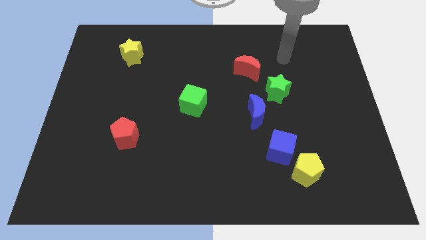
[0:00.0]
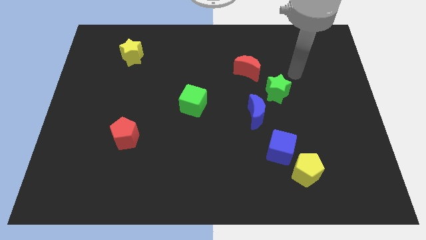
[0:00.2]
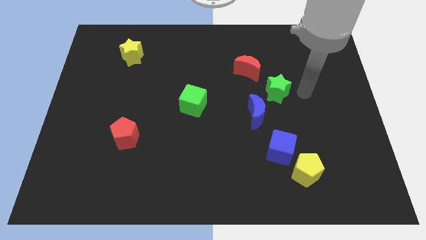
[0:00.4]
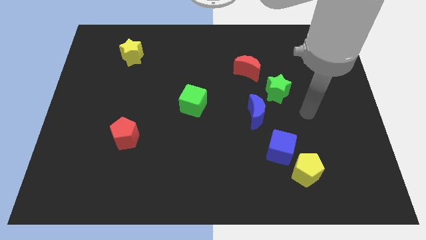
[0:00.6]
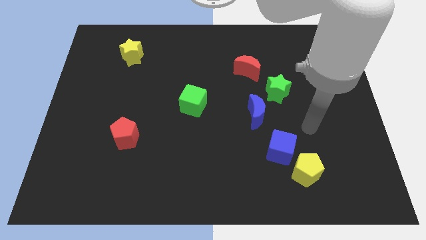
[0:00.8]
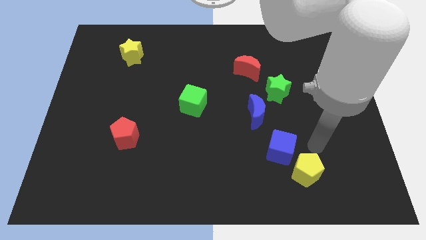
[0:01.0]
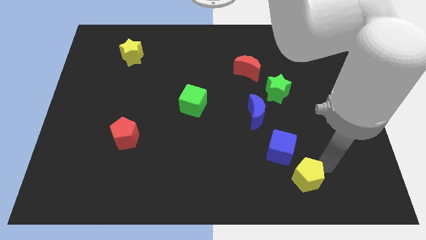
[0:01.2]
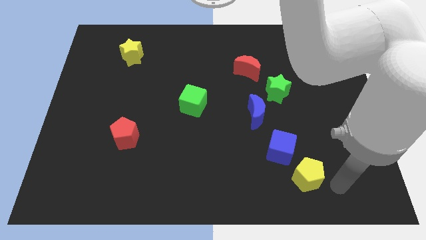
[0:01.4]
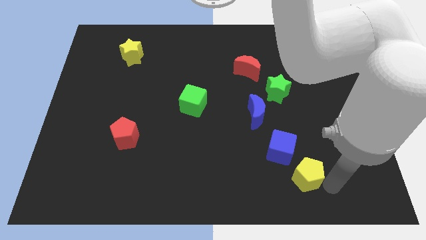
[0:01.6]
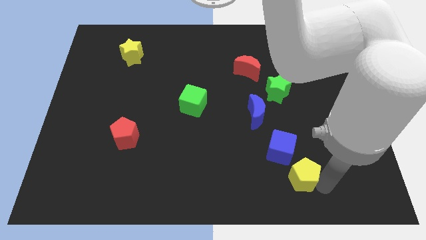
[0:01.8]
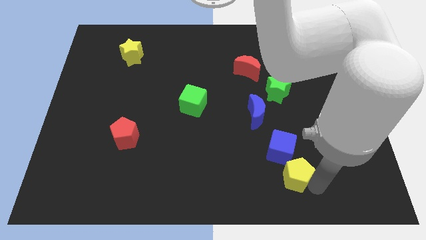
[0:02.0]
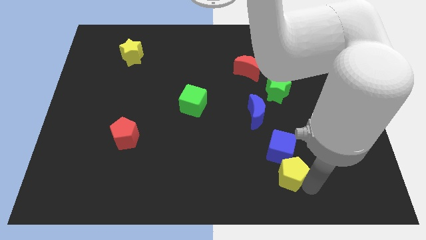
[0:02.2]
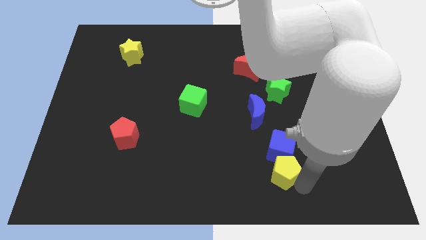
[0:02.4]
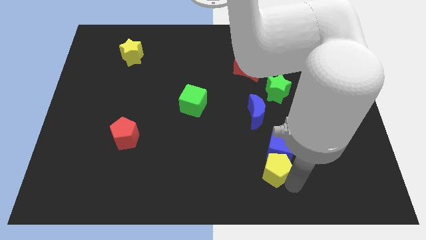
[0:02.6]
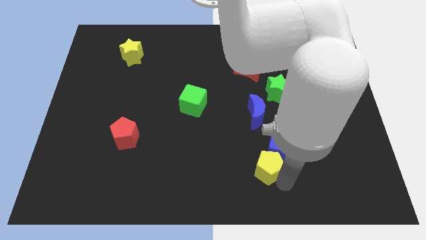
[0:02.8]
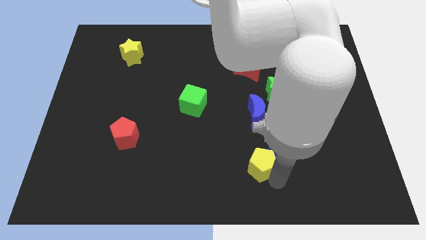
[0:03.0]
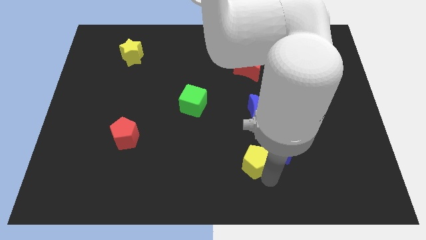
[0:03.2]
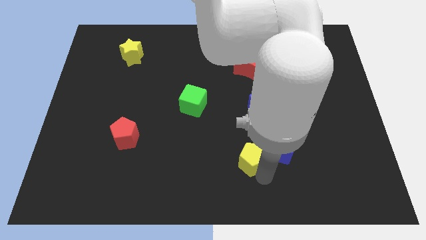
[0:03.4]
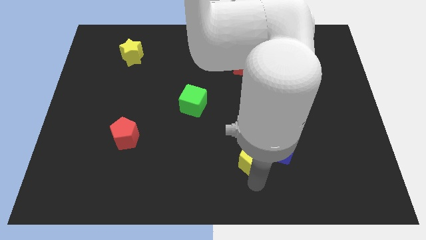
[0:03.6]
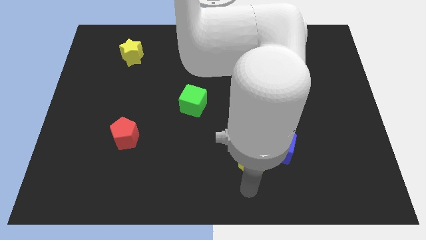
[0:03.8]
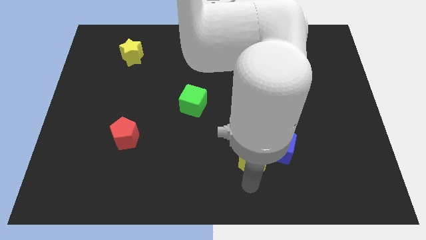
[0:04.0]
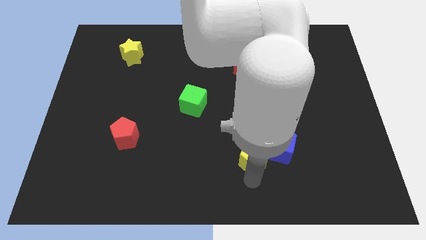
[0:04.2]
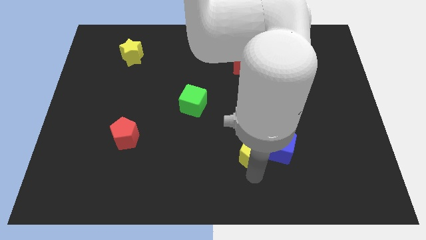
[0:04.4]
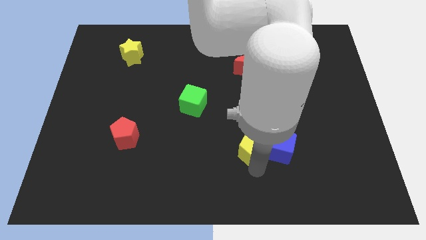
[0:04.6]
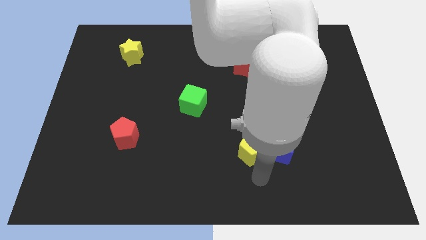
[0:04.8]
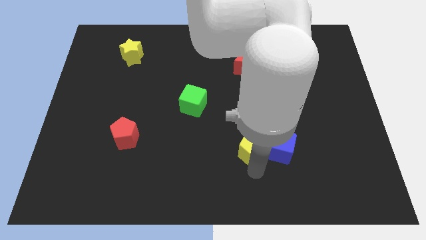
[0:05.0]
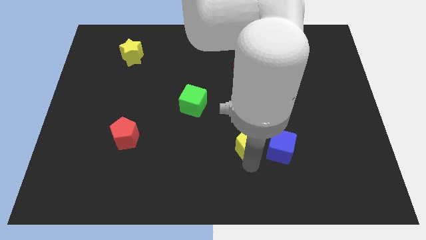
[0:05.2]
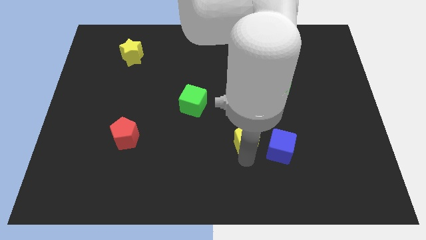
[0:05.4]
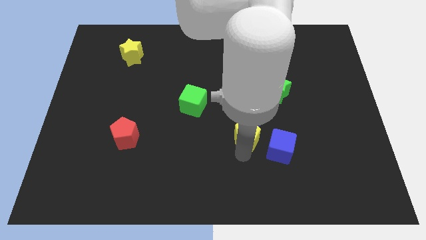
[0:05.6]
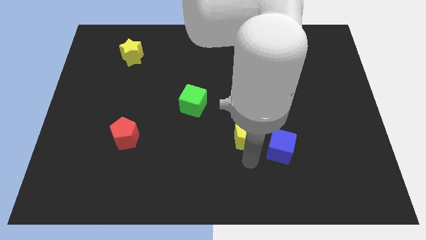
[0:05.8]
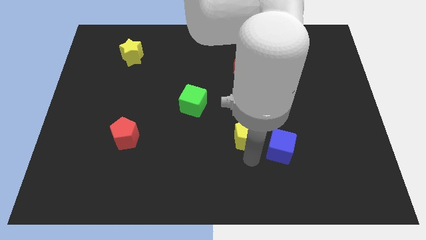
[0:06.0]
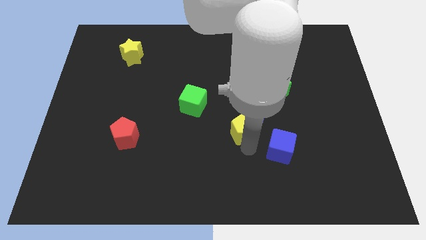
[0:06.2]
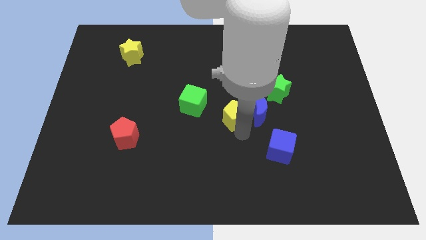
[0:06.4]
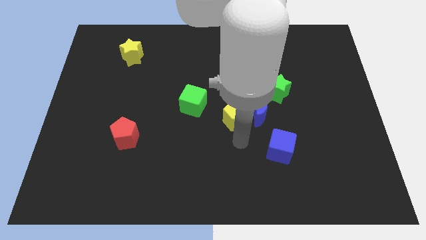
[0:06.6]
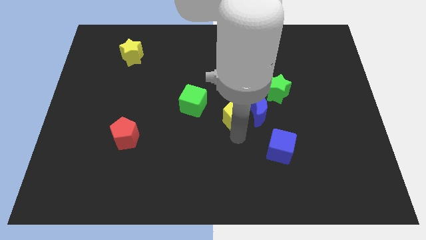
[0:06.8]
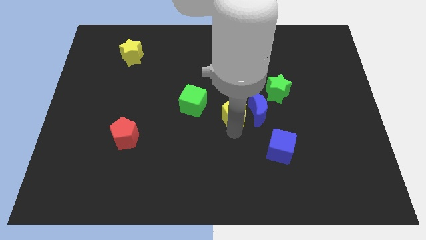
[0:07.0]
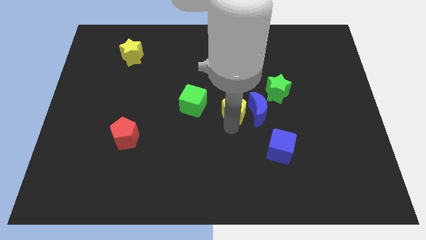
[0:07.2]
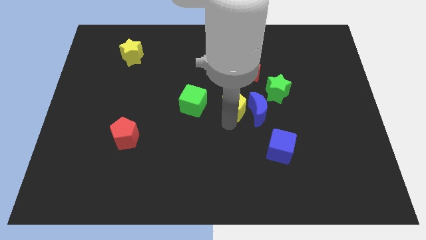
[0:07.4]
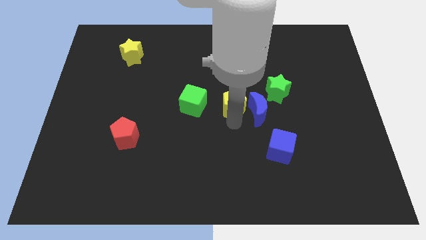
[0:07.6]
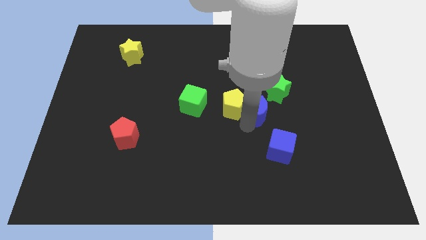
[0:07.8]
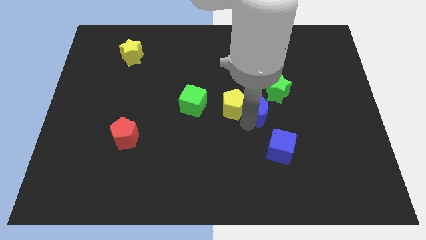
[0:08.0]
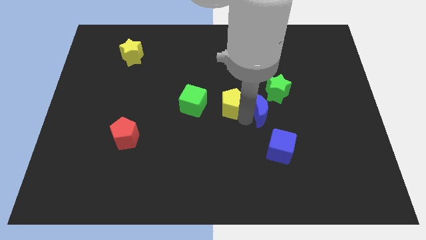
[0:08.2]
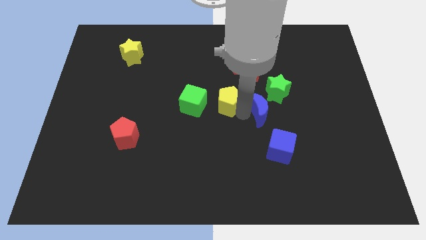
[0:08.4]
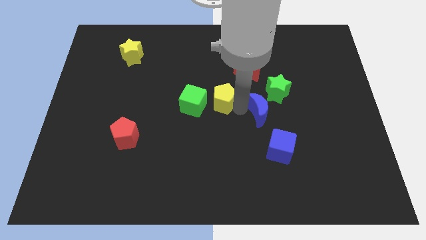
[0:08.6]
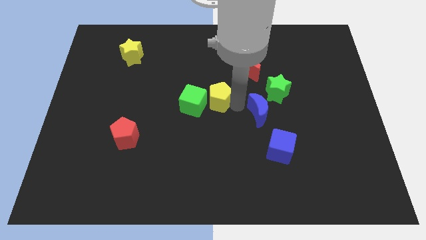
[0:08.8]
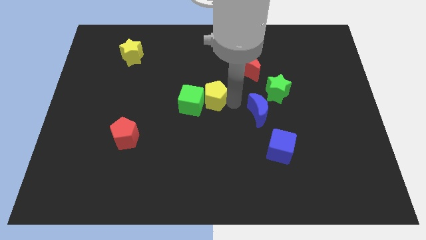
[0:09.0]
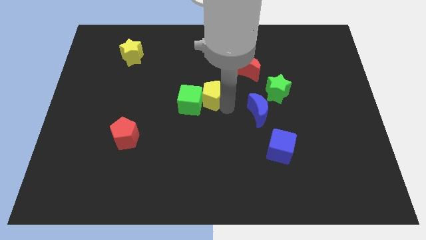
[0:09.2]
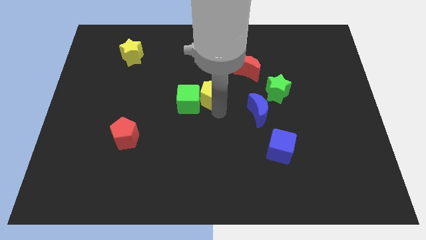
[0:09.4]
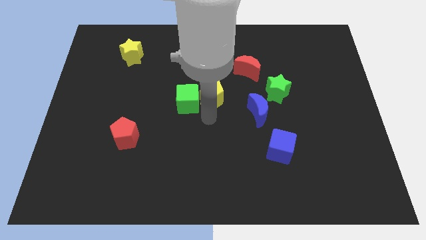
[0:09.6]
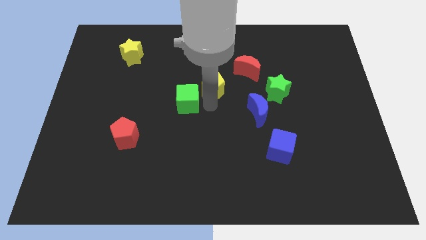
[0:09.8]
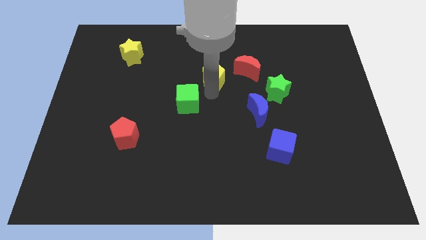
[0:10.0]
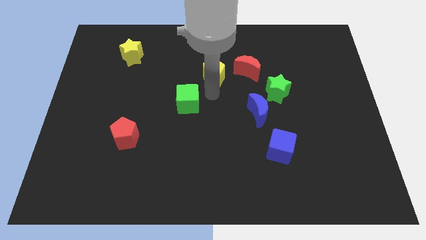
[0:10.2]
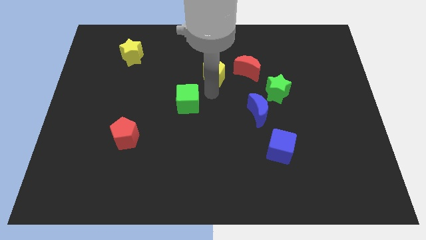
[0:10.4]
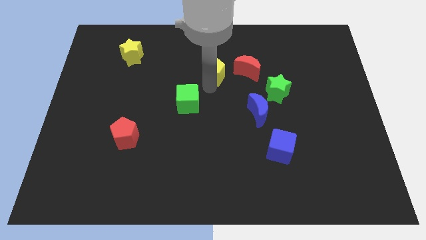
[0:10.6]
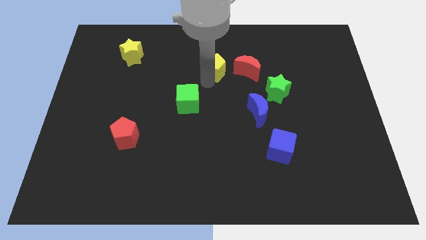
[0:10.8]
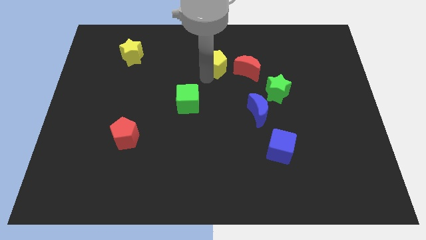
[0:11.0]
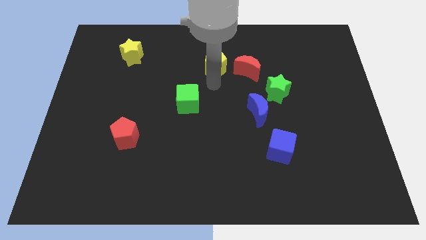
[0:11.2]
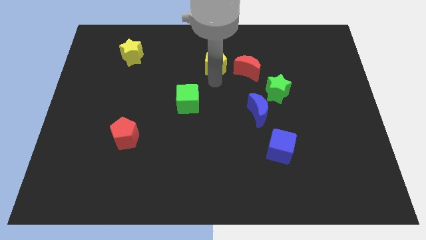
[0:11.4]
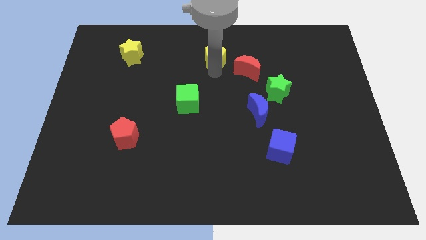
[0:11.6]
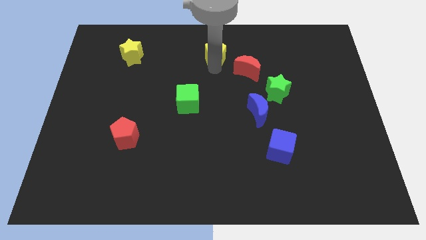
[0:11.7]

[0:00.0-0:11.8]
slide the yellow pentagon to the top
